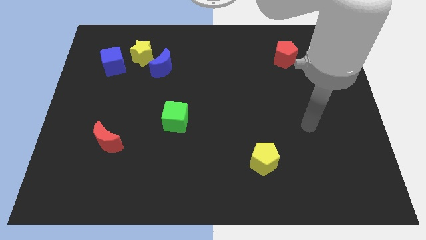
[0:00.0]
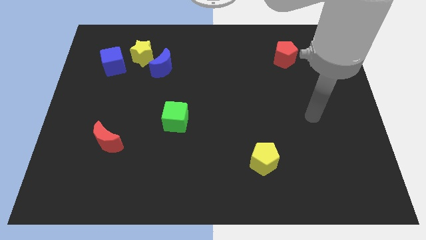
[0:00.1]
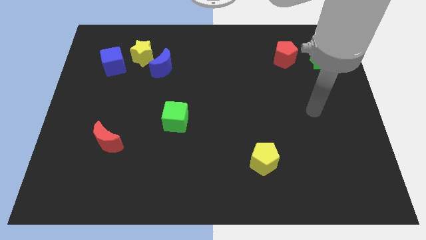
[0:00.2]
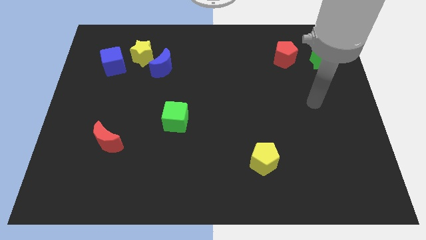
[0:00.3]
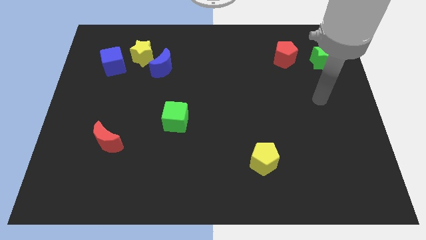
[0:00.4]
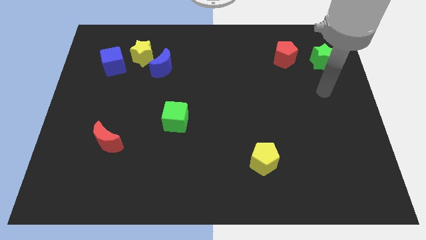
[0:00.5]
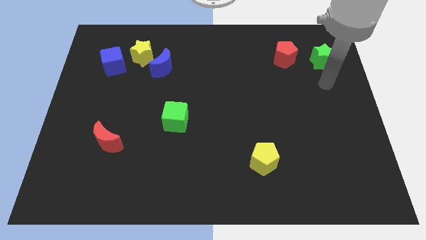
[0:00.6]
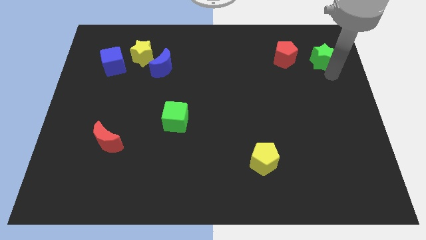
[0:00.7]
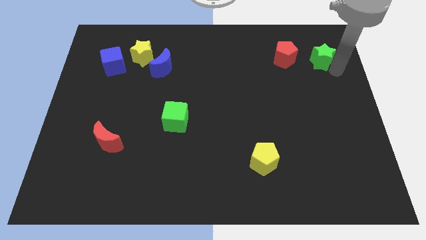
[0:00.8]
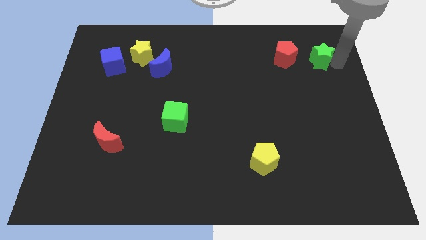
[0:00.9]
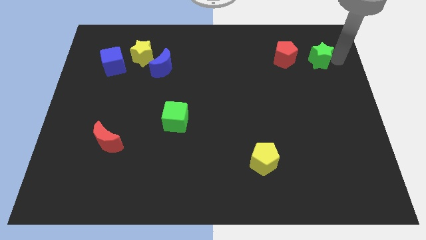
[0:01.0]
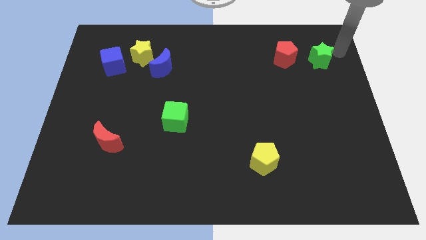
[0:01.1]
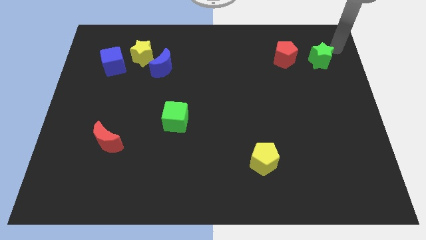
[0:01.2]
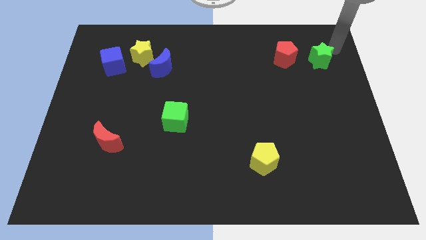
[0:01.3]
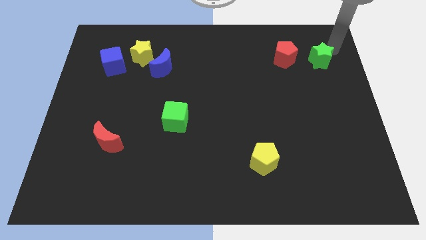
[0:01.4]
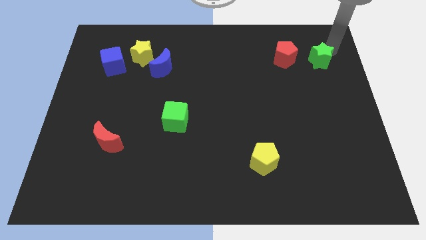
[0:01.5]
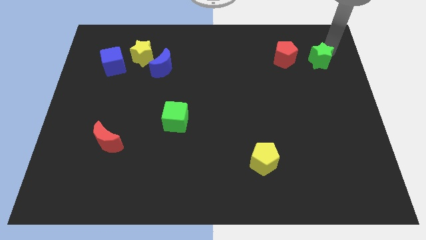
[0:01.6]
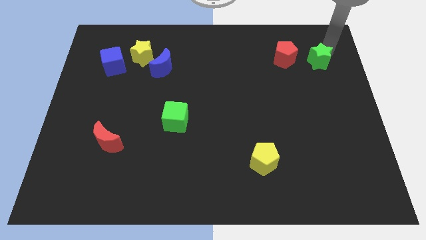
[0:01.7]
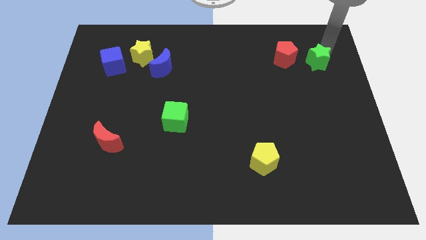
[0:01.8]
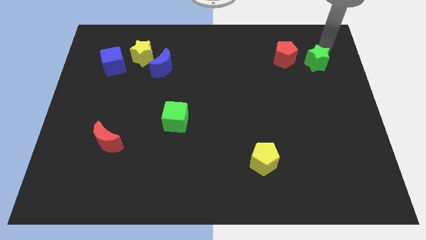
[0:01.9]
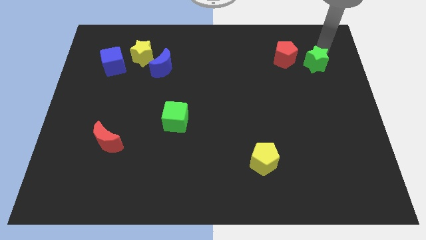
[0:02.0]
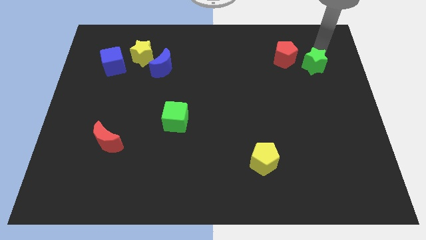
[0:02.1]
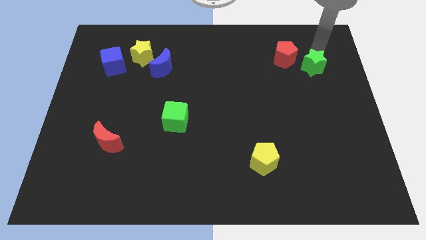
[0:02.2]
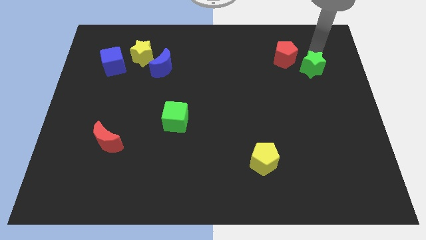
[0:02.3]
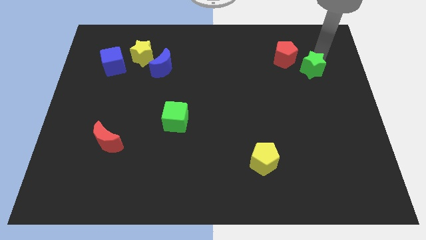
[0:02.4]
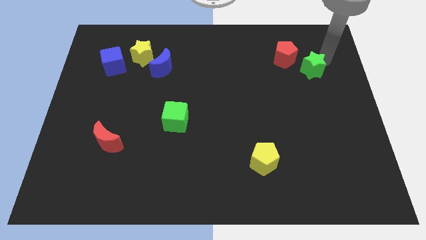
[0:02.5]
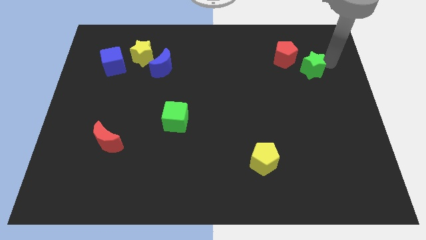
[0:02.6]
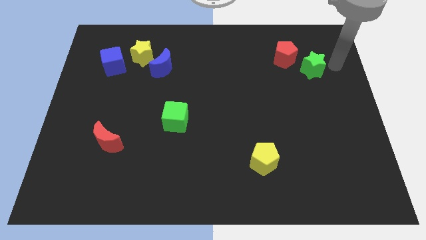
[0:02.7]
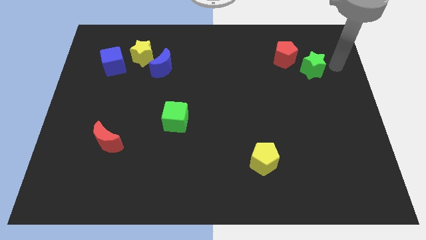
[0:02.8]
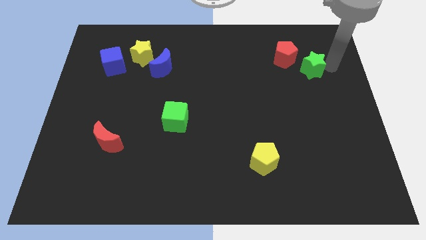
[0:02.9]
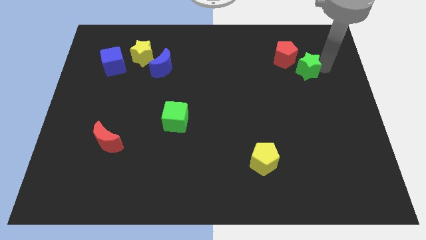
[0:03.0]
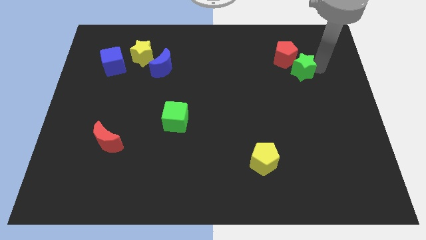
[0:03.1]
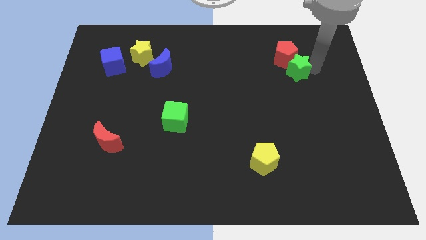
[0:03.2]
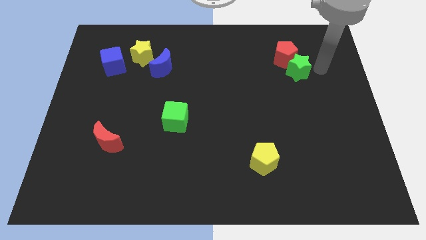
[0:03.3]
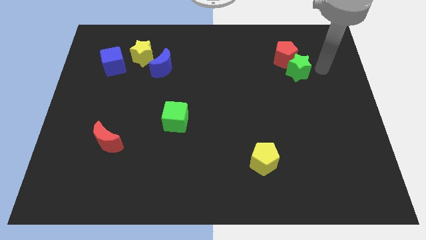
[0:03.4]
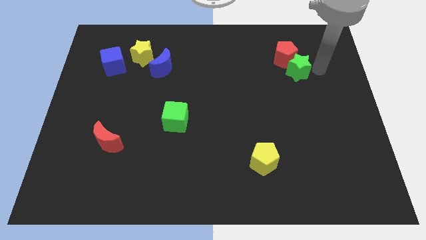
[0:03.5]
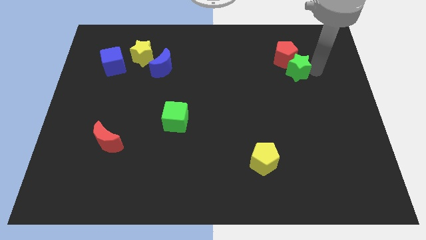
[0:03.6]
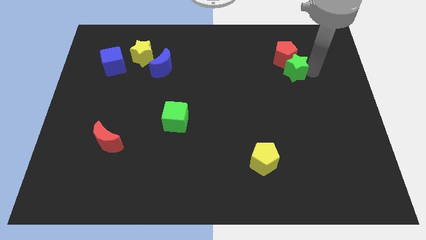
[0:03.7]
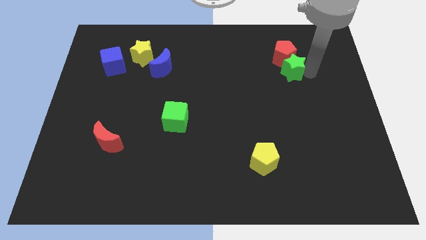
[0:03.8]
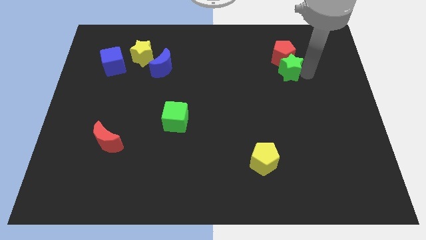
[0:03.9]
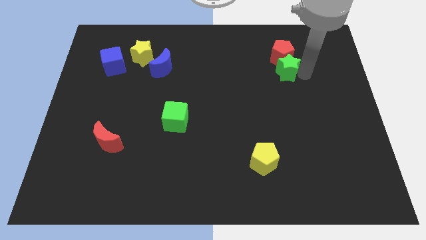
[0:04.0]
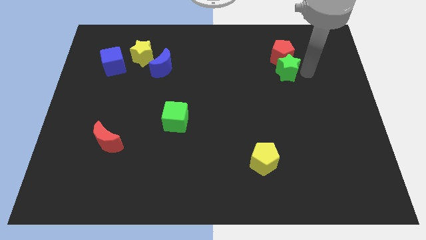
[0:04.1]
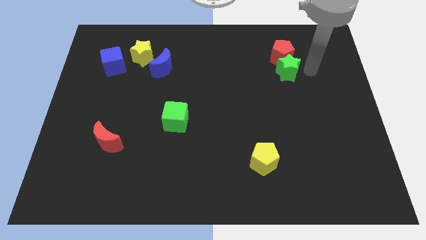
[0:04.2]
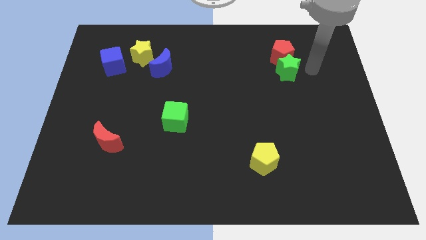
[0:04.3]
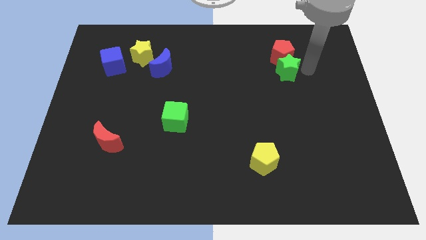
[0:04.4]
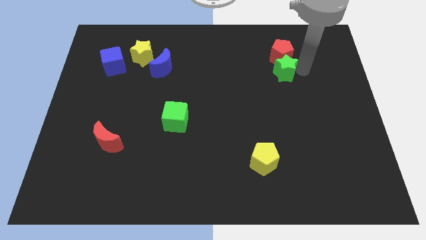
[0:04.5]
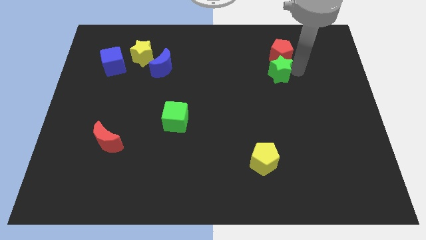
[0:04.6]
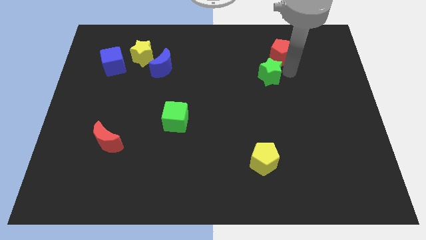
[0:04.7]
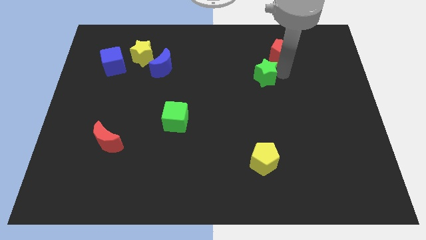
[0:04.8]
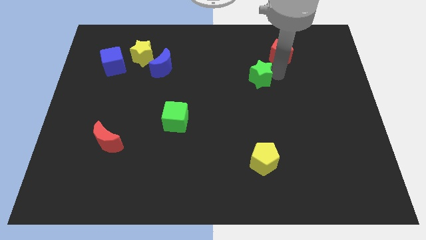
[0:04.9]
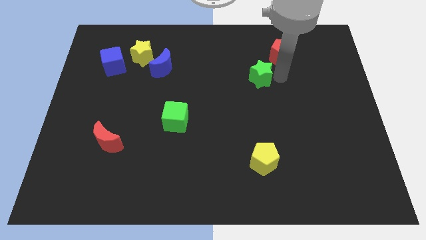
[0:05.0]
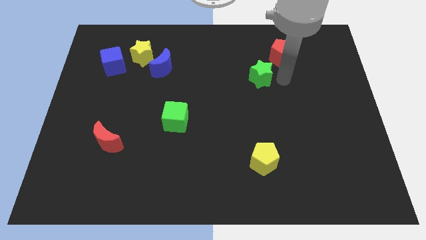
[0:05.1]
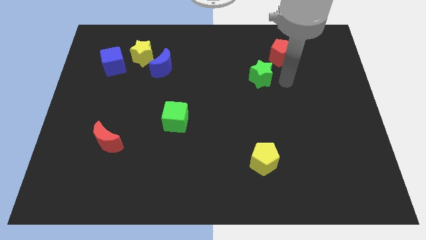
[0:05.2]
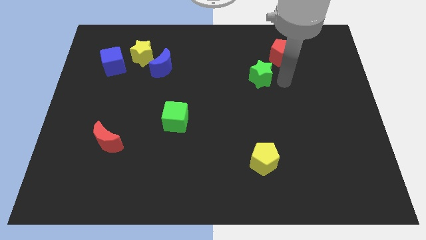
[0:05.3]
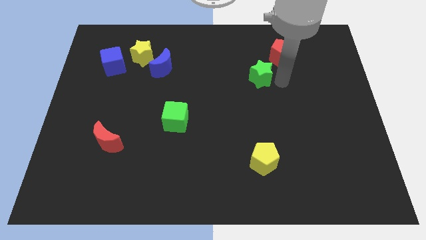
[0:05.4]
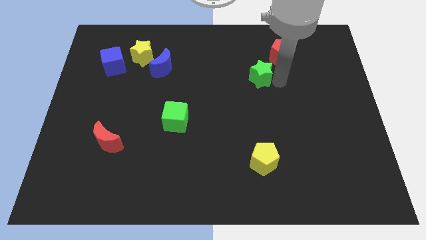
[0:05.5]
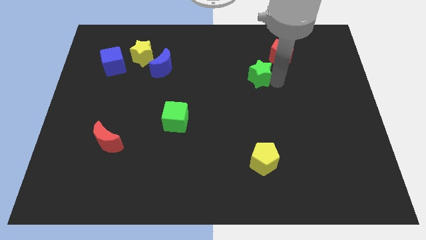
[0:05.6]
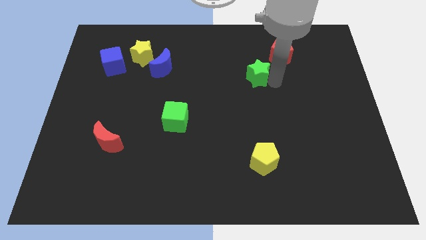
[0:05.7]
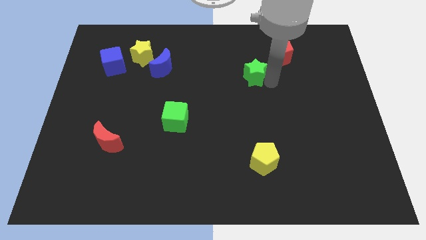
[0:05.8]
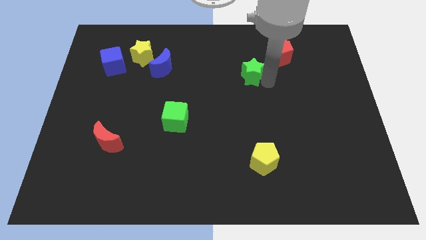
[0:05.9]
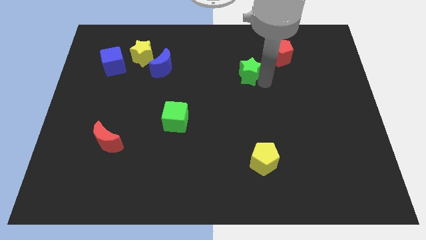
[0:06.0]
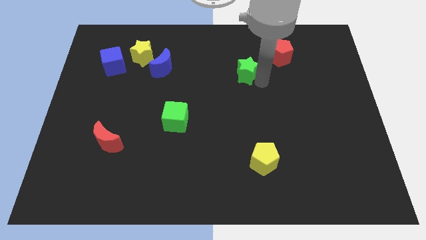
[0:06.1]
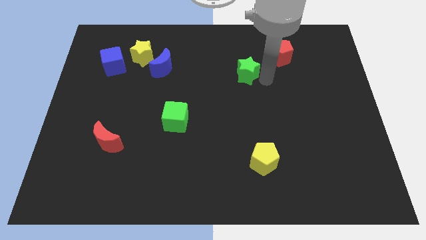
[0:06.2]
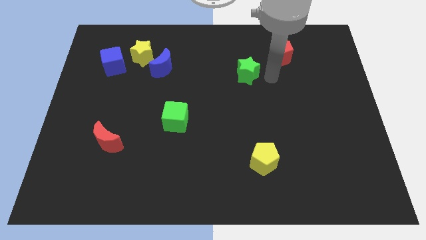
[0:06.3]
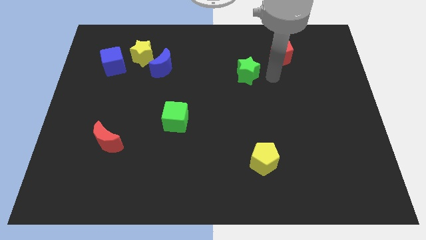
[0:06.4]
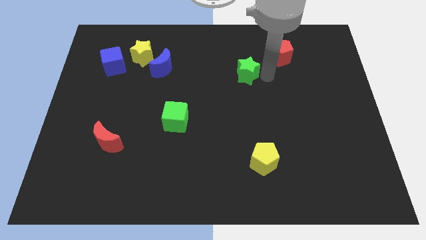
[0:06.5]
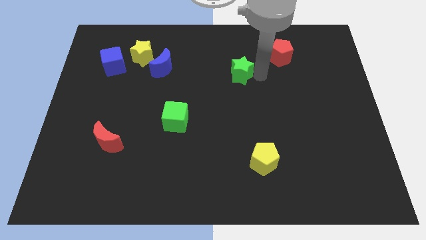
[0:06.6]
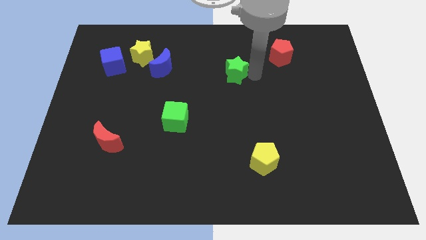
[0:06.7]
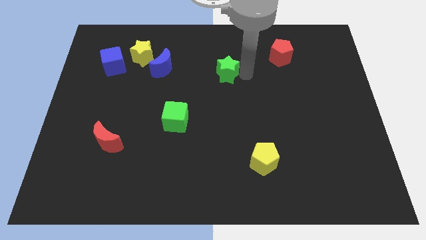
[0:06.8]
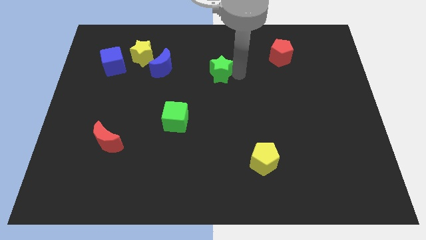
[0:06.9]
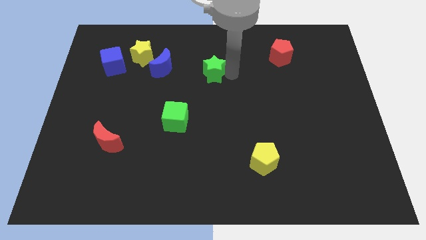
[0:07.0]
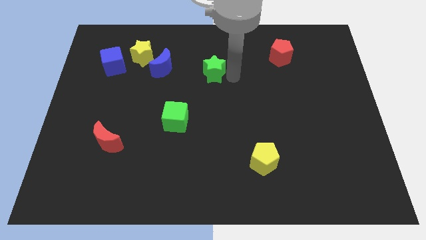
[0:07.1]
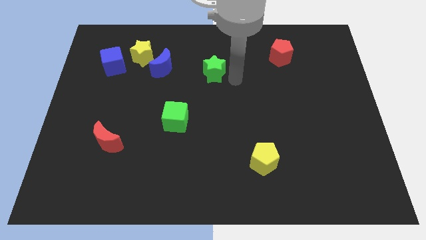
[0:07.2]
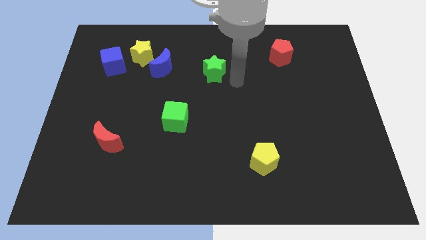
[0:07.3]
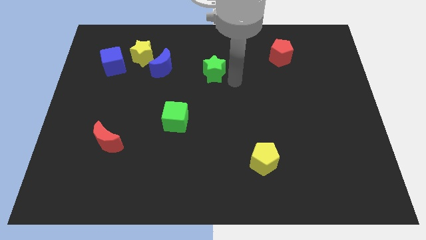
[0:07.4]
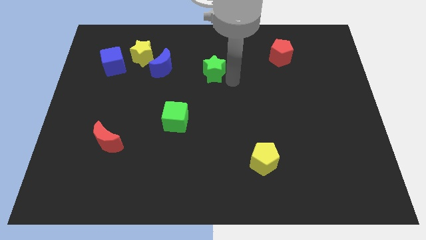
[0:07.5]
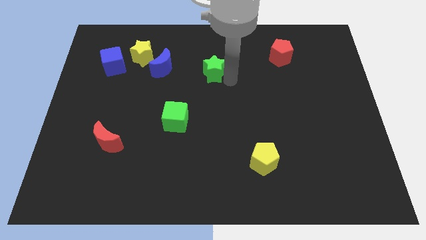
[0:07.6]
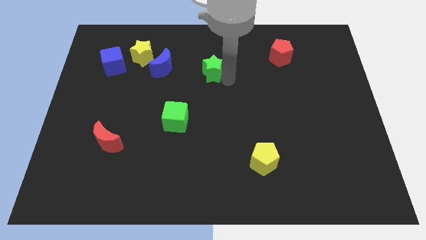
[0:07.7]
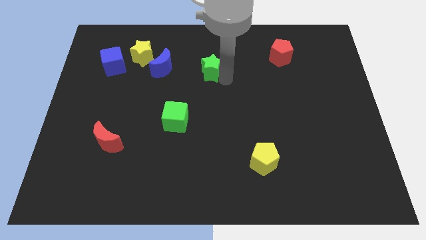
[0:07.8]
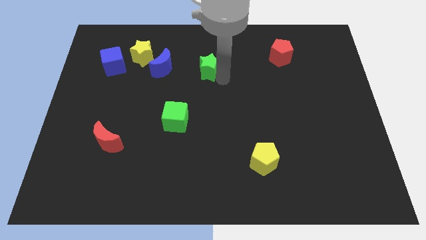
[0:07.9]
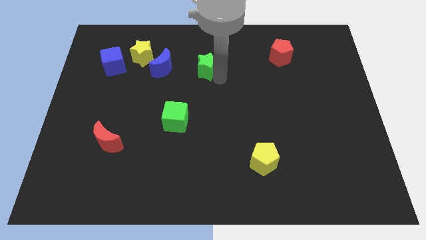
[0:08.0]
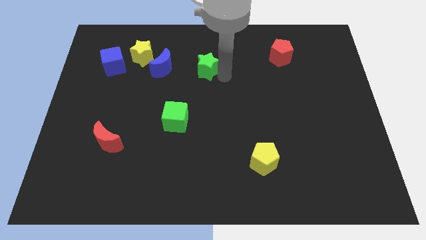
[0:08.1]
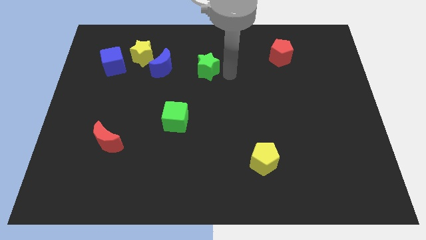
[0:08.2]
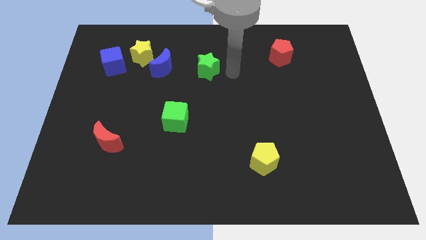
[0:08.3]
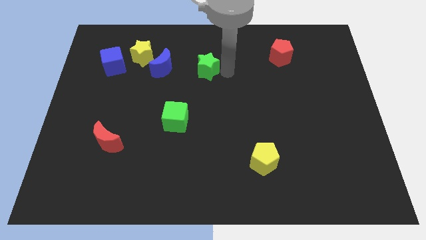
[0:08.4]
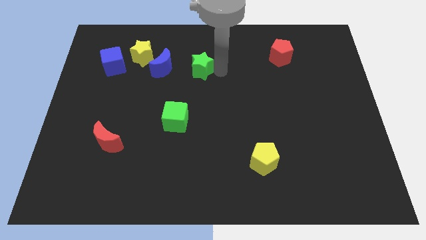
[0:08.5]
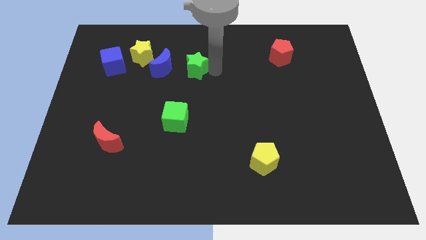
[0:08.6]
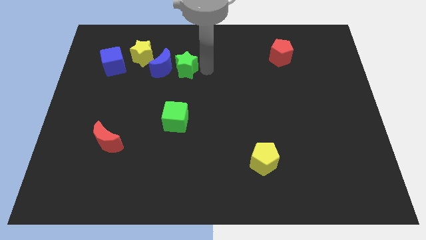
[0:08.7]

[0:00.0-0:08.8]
put the green star towards the blue moon
